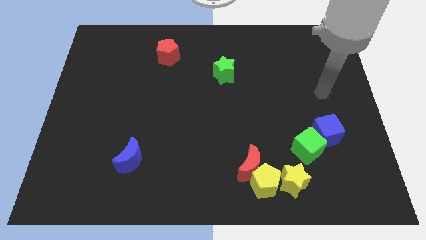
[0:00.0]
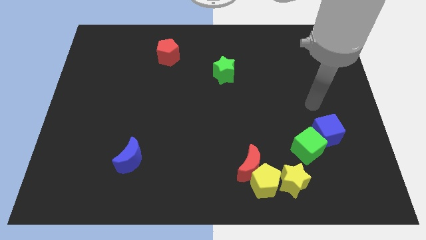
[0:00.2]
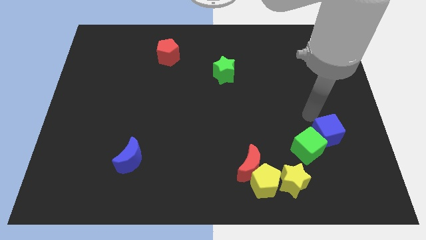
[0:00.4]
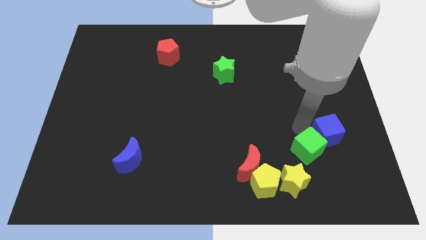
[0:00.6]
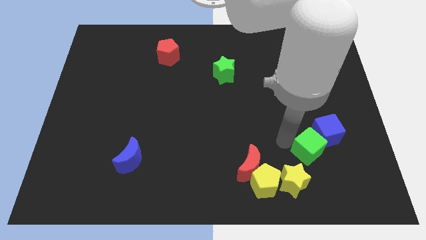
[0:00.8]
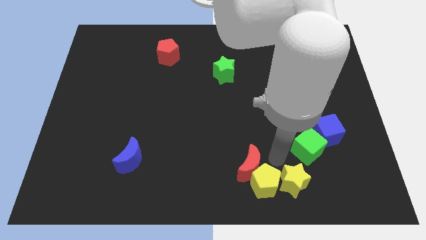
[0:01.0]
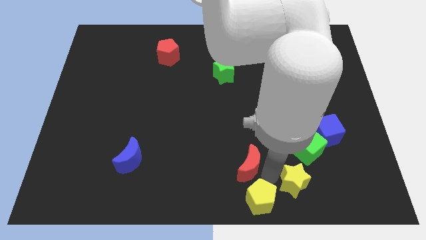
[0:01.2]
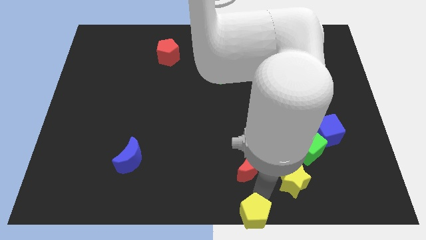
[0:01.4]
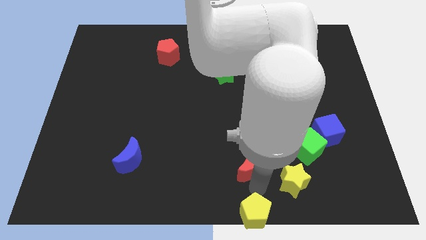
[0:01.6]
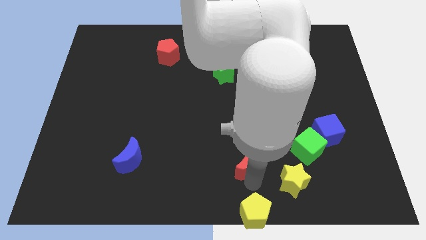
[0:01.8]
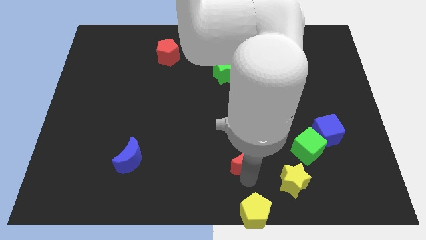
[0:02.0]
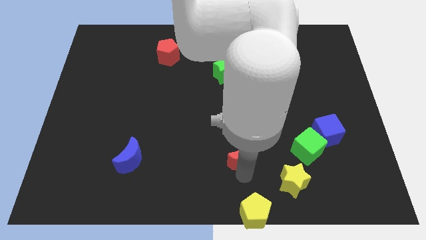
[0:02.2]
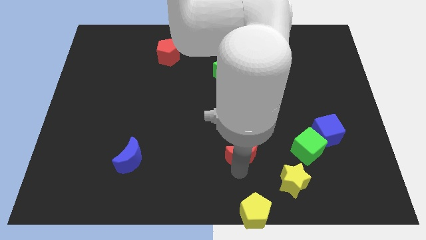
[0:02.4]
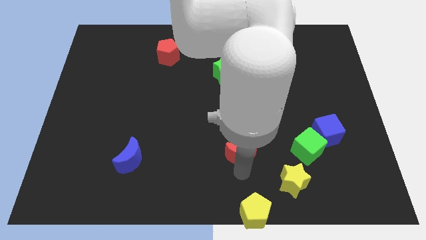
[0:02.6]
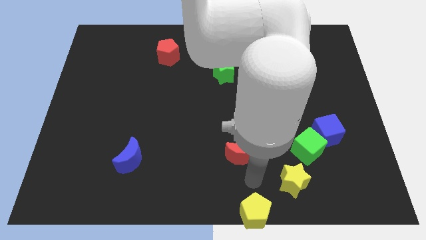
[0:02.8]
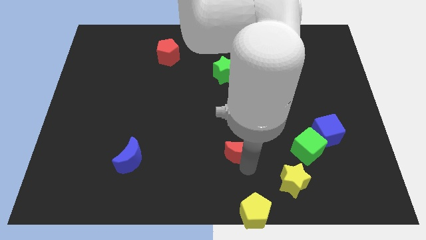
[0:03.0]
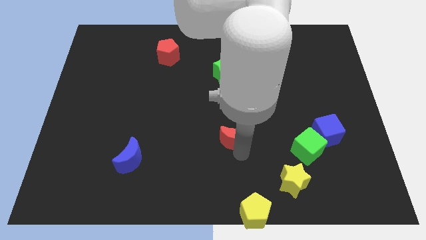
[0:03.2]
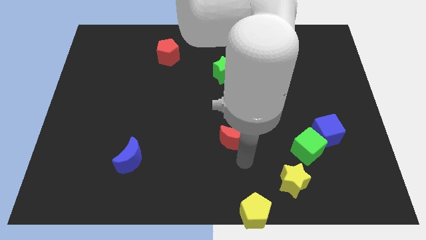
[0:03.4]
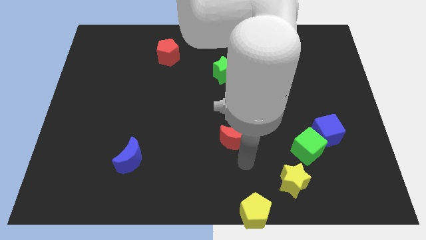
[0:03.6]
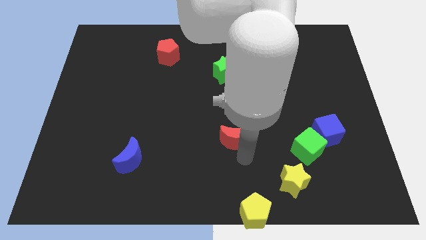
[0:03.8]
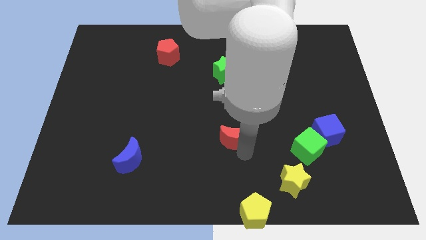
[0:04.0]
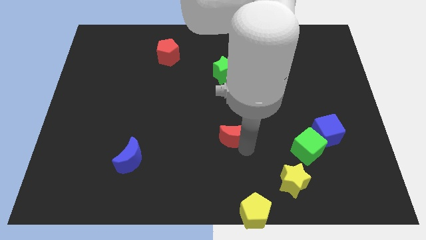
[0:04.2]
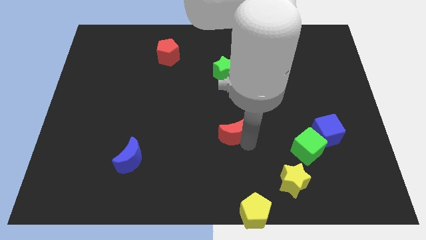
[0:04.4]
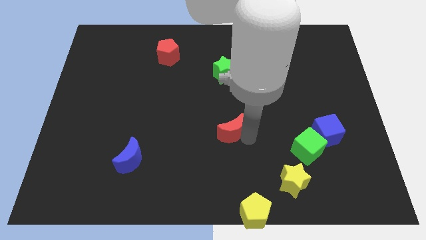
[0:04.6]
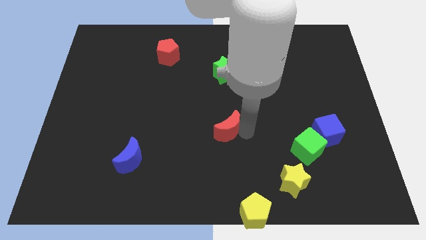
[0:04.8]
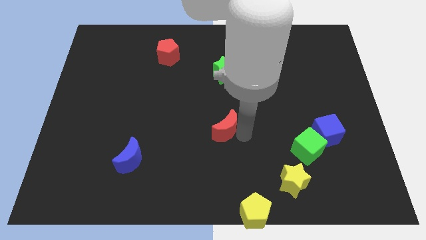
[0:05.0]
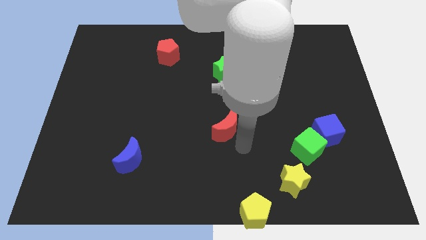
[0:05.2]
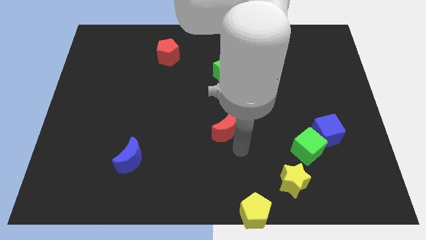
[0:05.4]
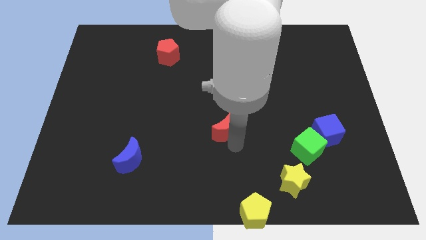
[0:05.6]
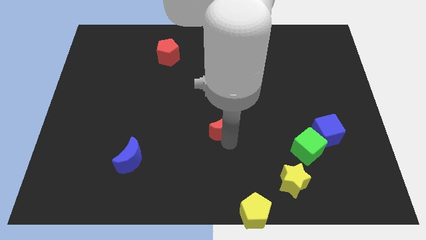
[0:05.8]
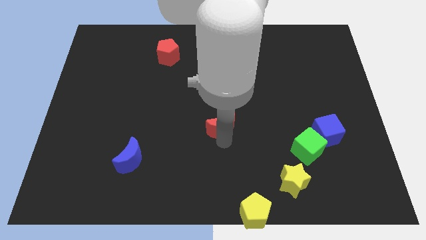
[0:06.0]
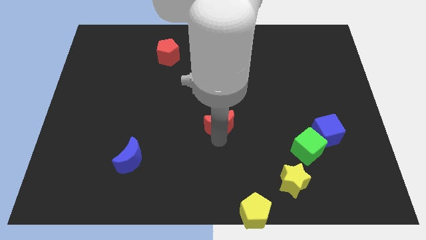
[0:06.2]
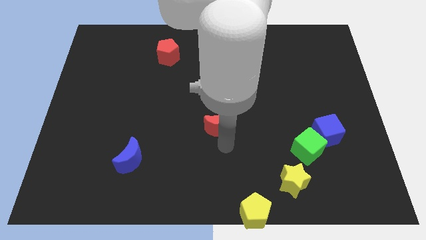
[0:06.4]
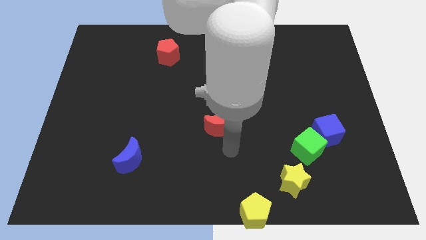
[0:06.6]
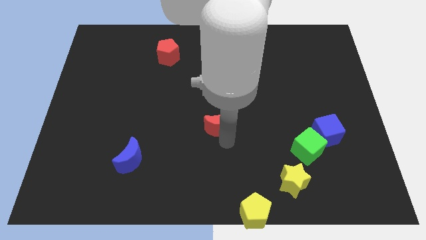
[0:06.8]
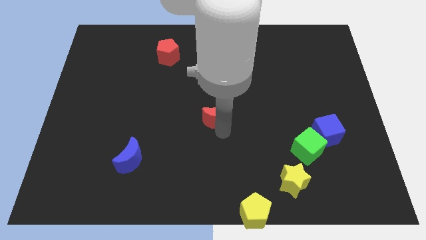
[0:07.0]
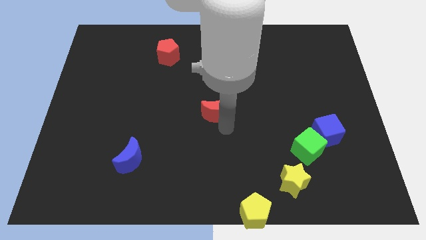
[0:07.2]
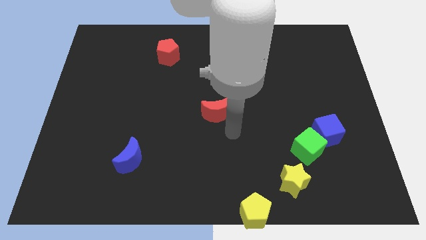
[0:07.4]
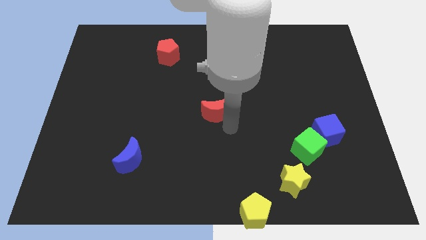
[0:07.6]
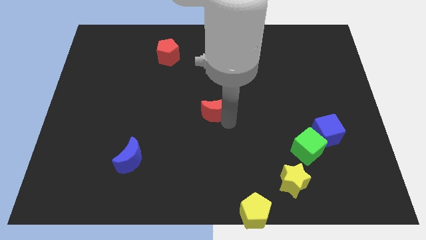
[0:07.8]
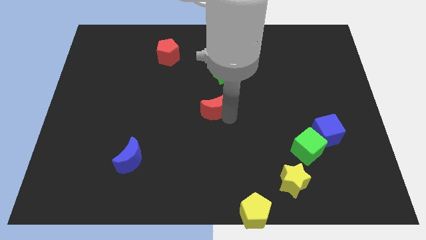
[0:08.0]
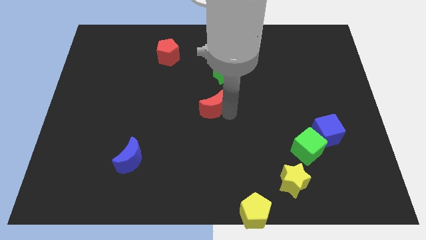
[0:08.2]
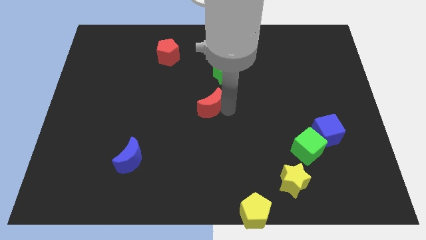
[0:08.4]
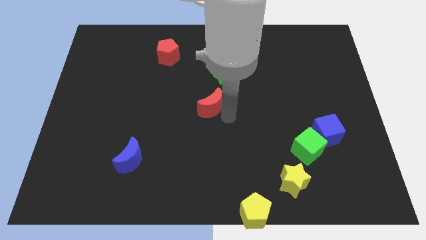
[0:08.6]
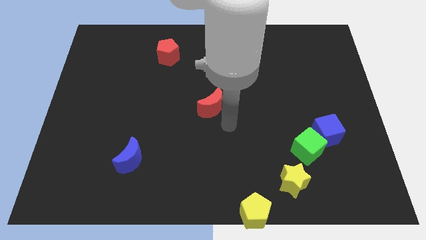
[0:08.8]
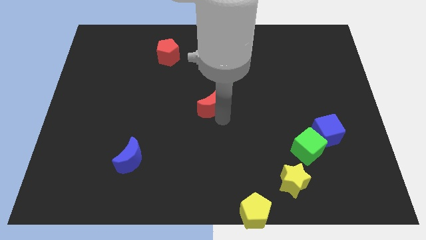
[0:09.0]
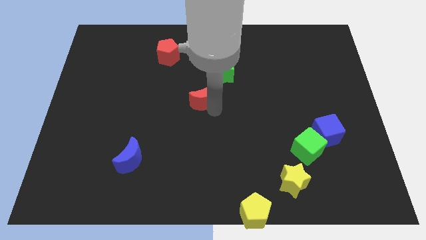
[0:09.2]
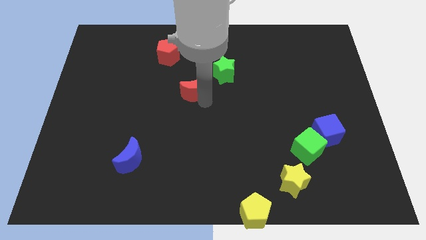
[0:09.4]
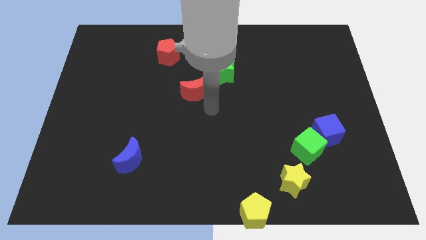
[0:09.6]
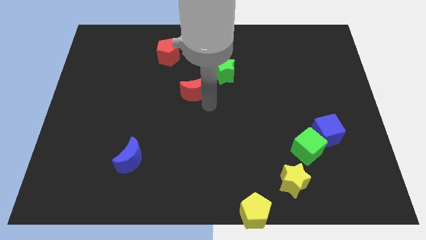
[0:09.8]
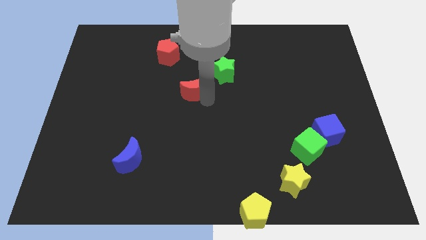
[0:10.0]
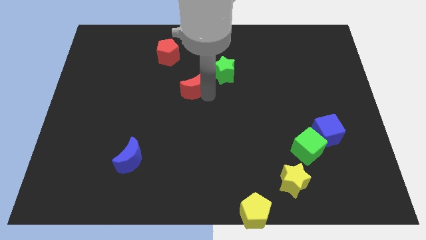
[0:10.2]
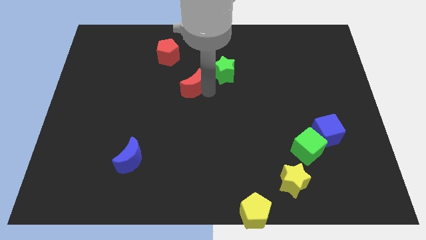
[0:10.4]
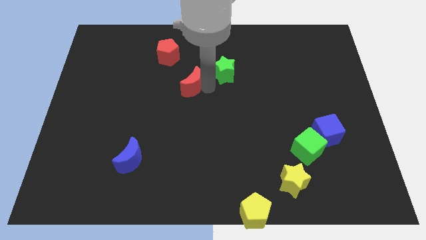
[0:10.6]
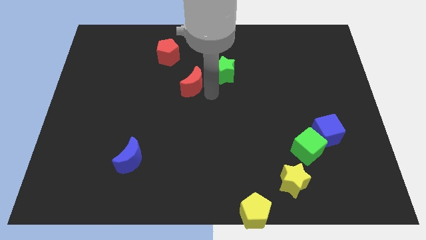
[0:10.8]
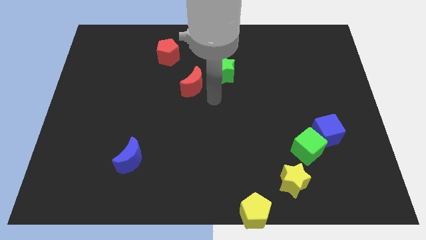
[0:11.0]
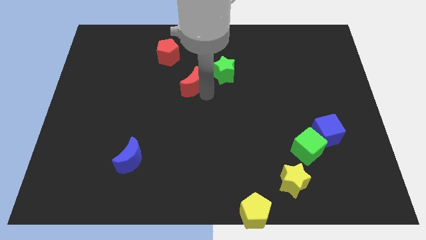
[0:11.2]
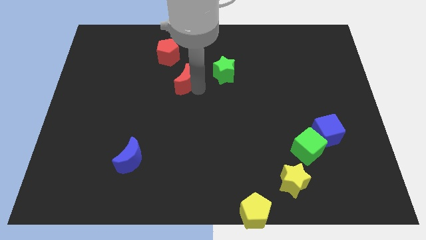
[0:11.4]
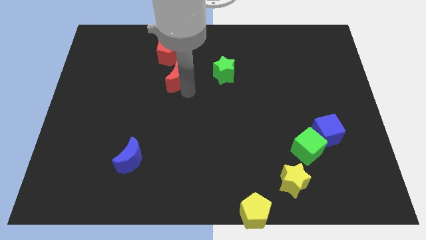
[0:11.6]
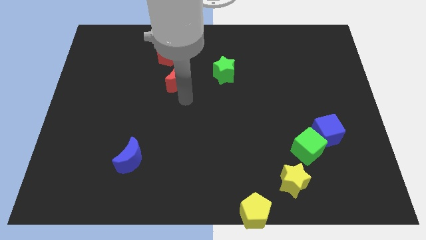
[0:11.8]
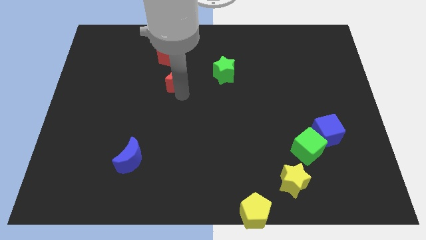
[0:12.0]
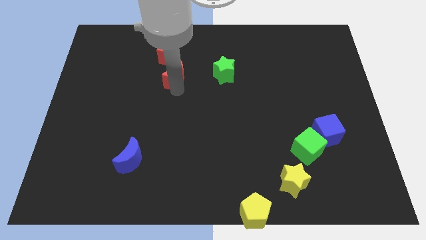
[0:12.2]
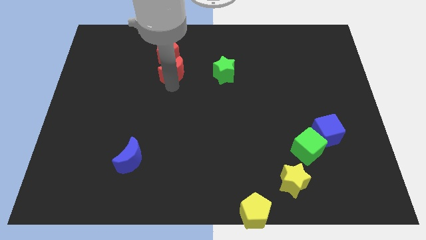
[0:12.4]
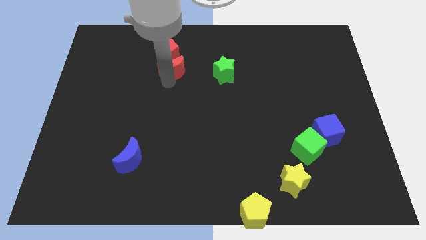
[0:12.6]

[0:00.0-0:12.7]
slide the red moon towards the red pentagon
